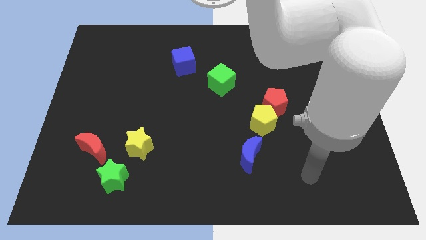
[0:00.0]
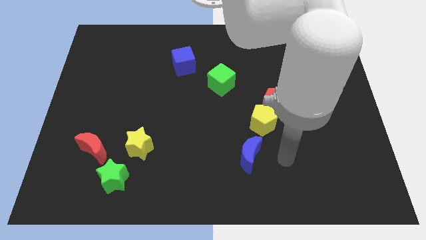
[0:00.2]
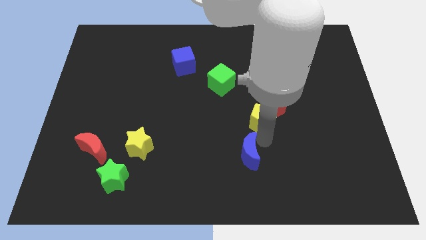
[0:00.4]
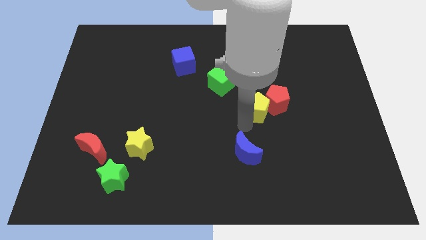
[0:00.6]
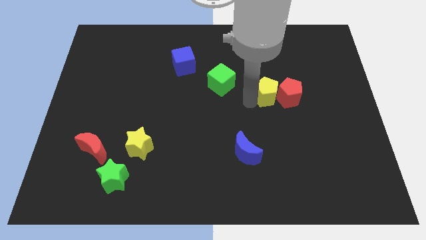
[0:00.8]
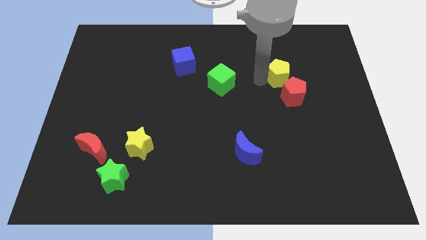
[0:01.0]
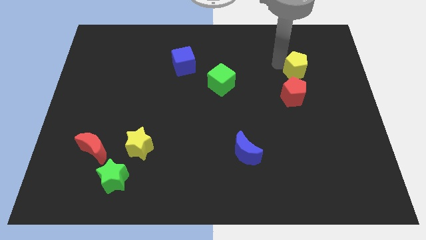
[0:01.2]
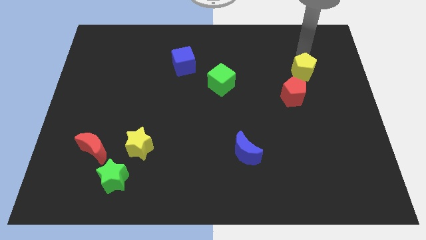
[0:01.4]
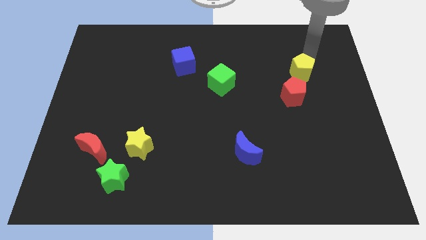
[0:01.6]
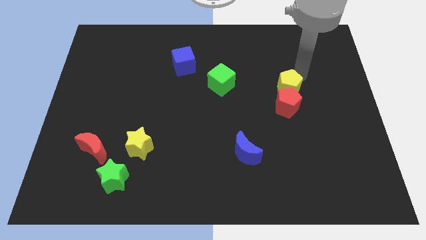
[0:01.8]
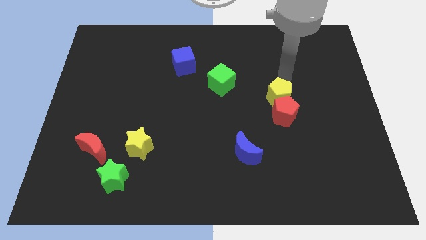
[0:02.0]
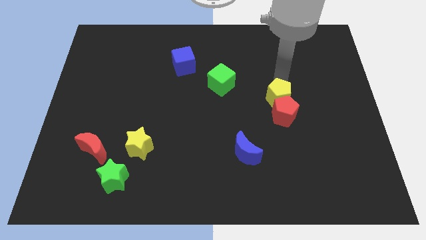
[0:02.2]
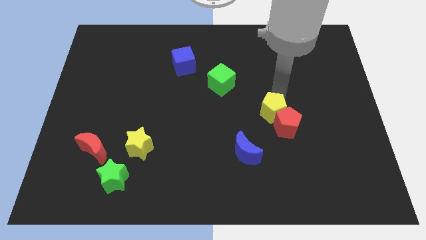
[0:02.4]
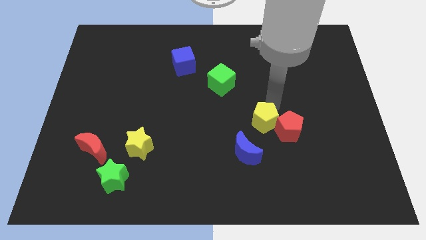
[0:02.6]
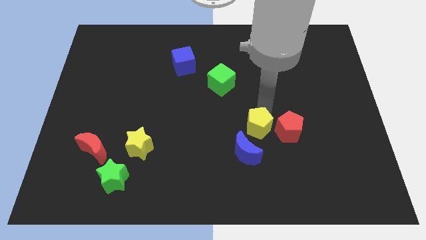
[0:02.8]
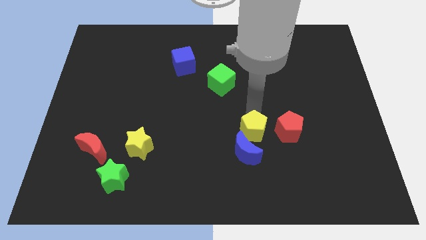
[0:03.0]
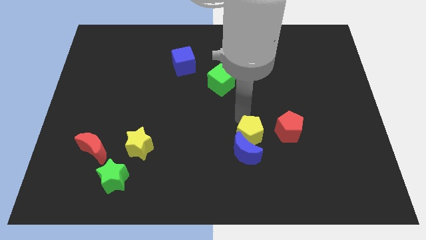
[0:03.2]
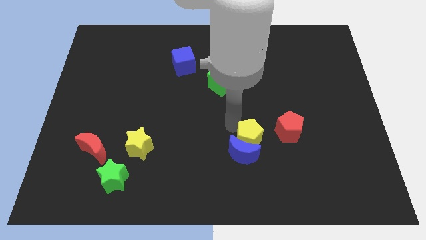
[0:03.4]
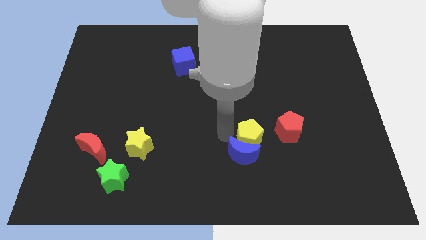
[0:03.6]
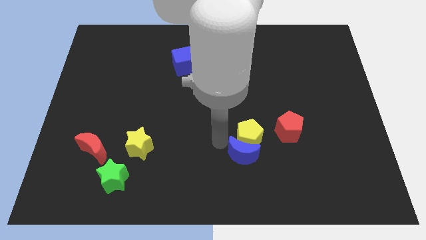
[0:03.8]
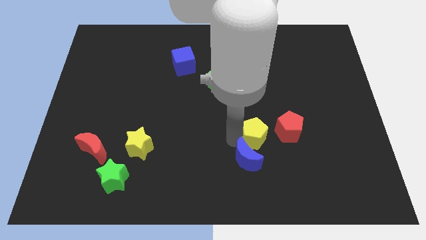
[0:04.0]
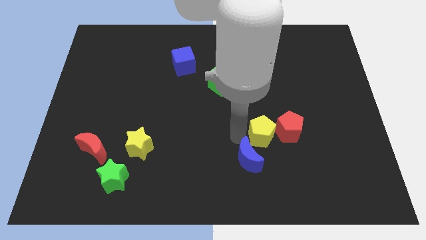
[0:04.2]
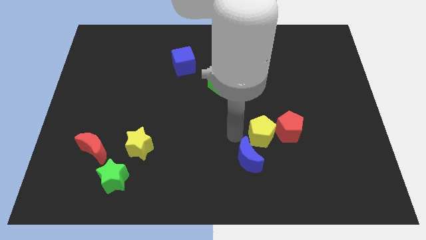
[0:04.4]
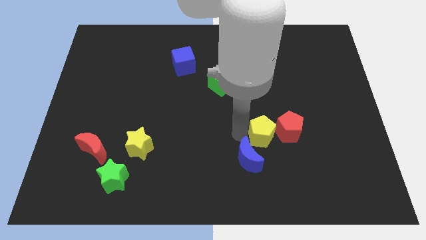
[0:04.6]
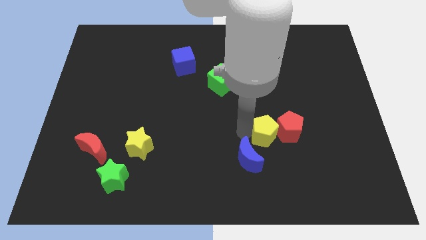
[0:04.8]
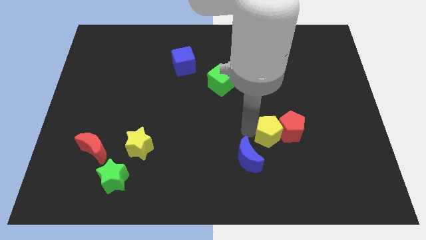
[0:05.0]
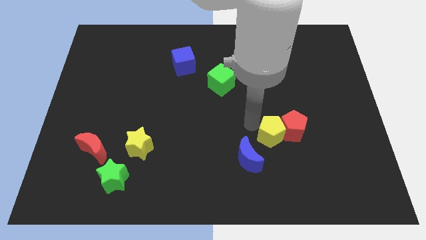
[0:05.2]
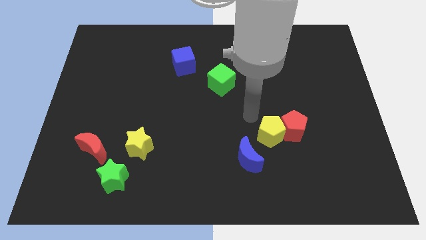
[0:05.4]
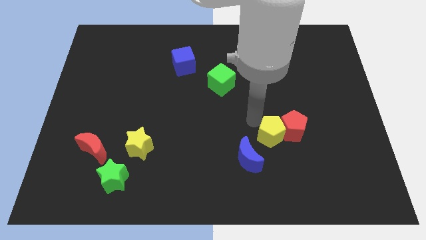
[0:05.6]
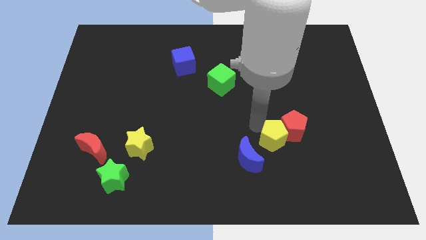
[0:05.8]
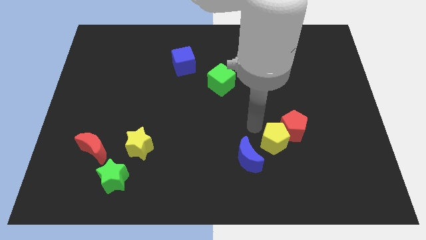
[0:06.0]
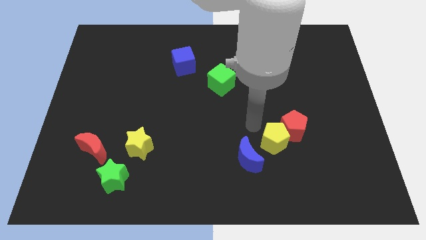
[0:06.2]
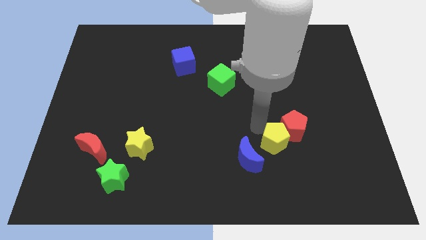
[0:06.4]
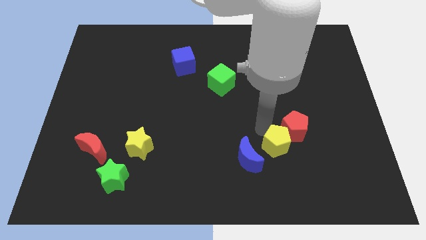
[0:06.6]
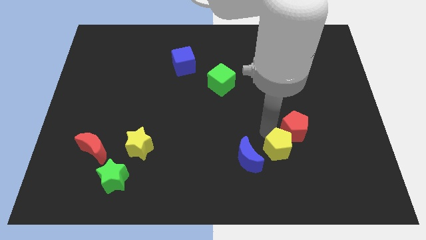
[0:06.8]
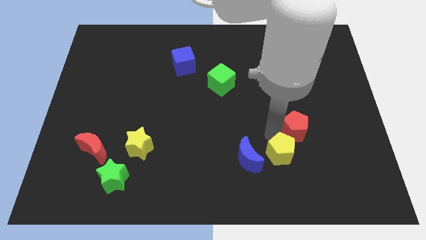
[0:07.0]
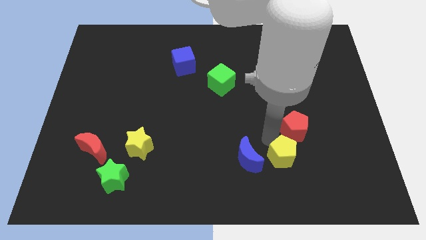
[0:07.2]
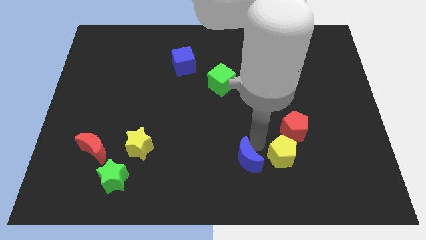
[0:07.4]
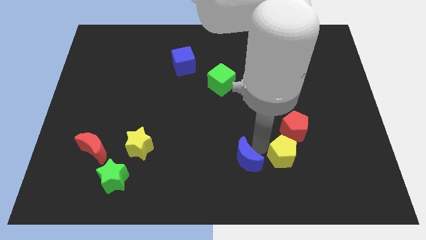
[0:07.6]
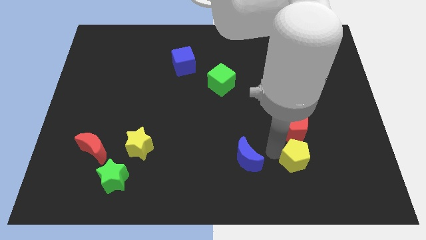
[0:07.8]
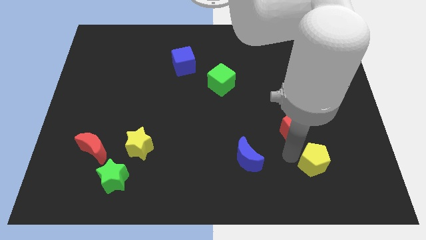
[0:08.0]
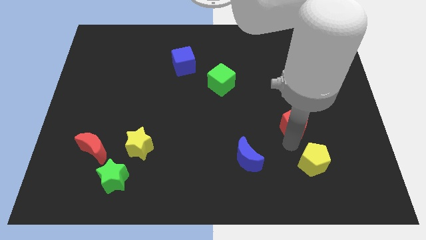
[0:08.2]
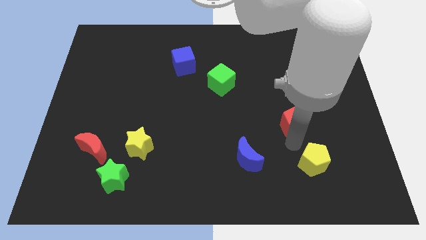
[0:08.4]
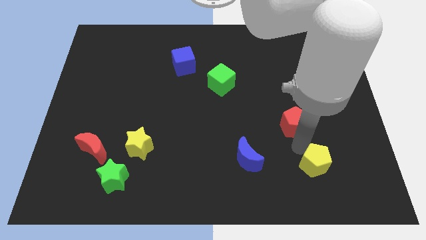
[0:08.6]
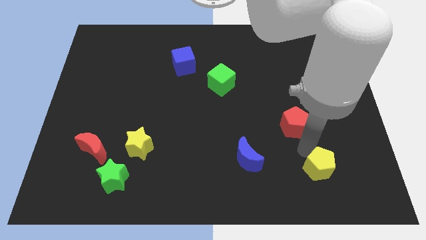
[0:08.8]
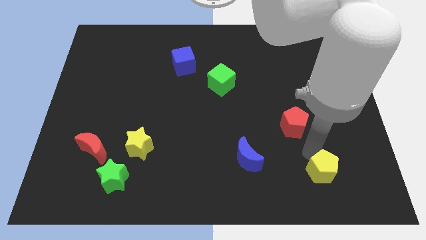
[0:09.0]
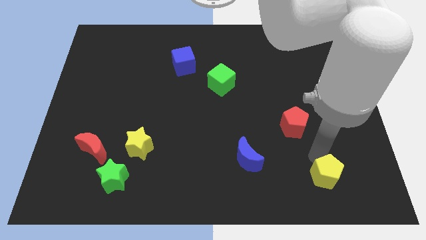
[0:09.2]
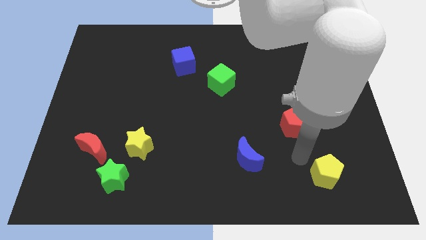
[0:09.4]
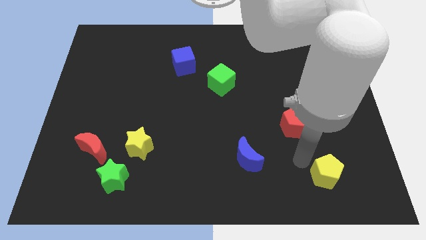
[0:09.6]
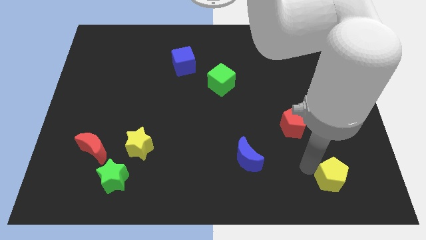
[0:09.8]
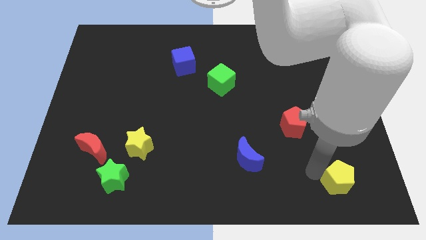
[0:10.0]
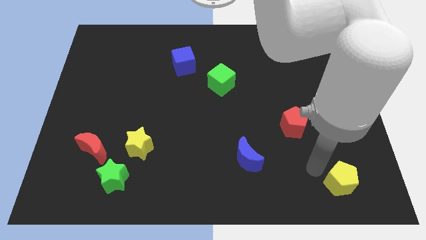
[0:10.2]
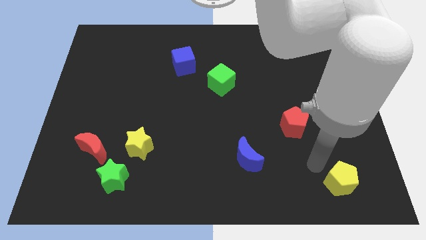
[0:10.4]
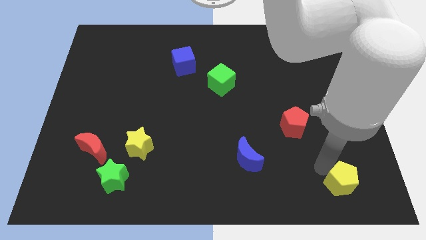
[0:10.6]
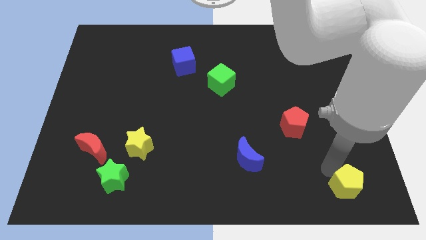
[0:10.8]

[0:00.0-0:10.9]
move the yellow pentagon to the bottom right corner
